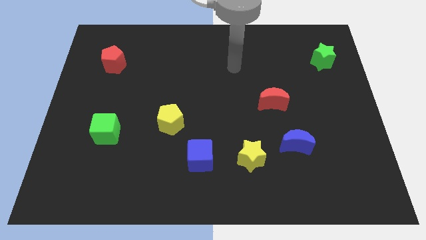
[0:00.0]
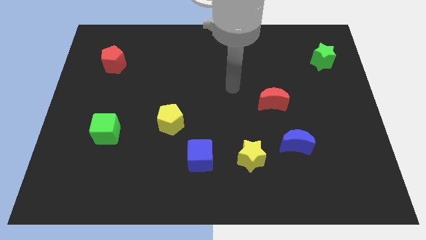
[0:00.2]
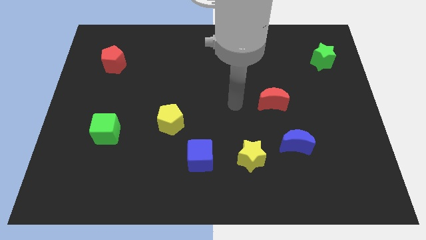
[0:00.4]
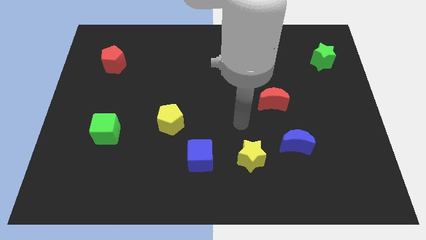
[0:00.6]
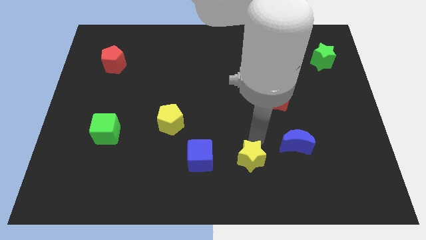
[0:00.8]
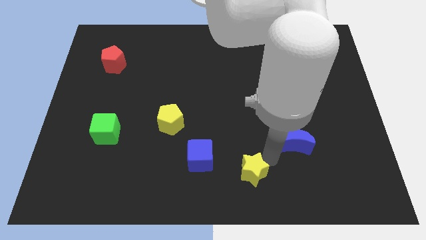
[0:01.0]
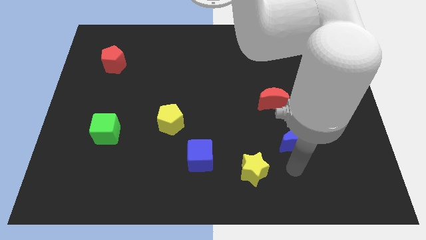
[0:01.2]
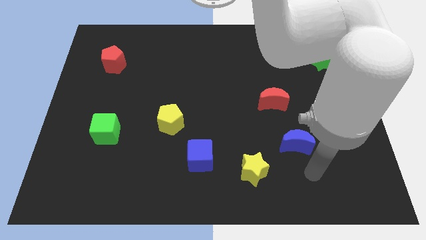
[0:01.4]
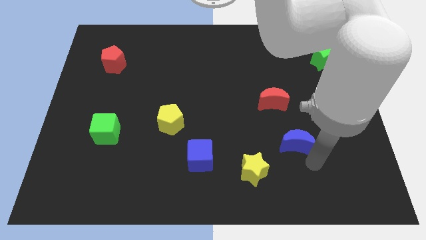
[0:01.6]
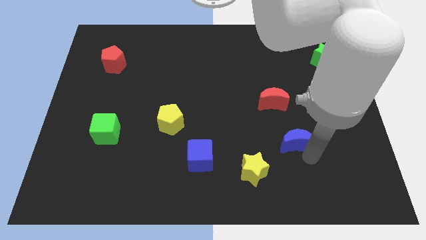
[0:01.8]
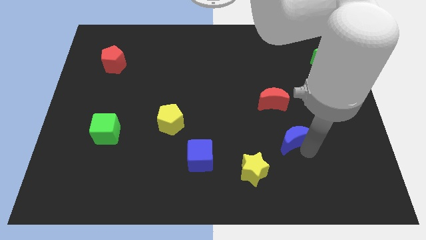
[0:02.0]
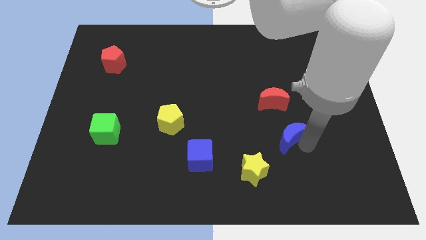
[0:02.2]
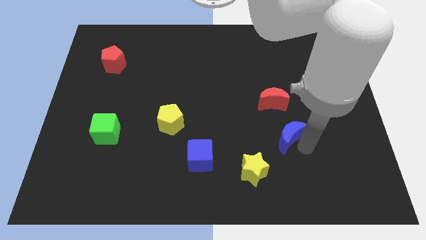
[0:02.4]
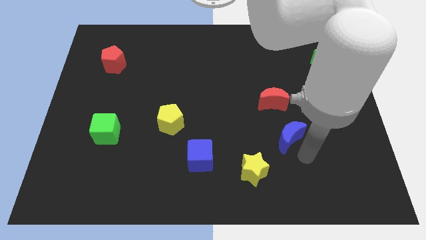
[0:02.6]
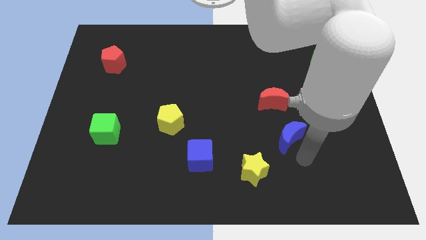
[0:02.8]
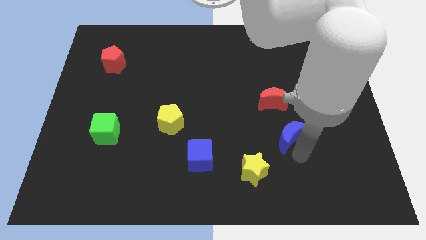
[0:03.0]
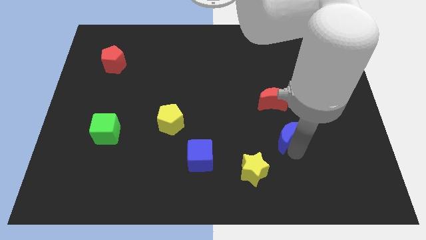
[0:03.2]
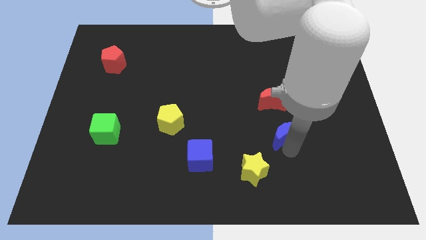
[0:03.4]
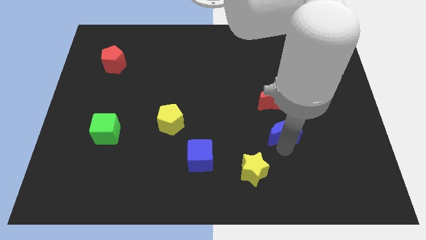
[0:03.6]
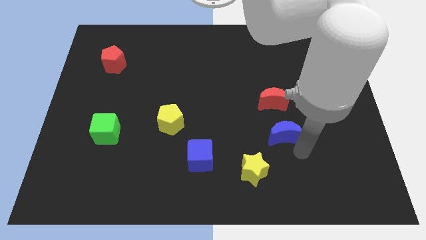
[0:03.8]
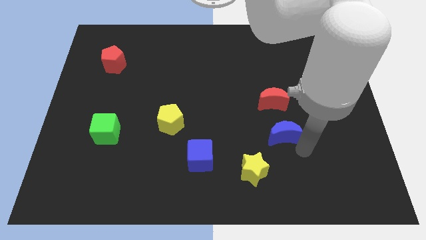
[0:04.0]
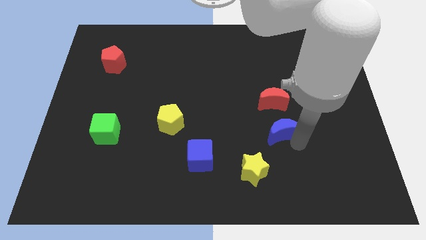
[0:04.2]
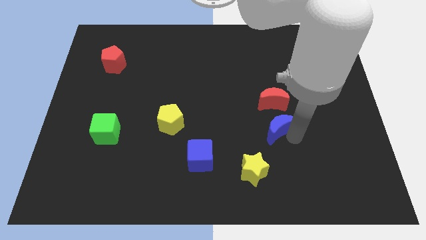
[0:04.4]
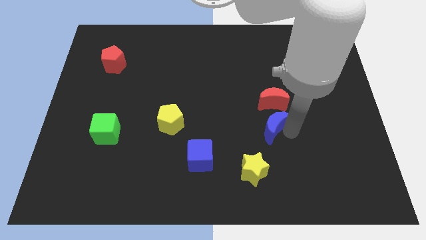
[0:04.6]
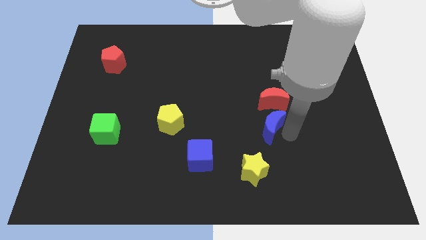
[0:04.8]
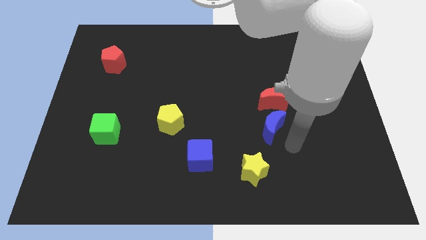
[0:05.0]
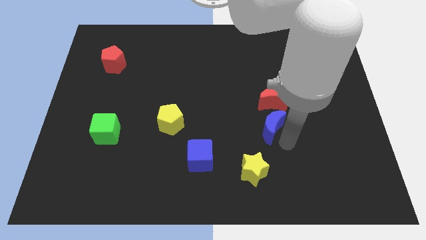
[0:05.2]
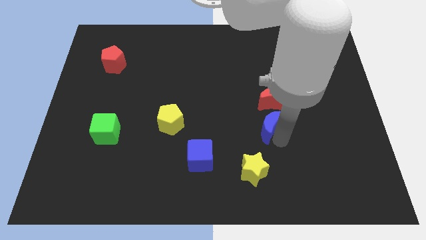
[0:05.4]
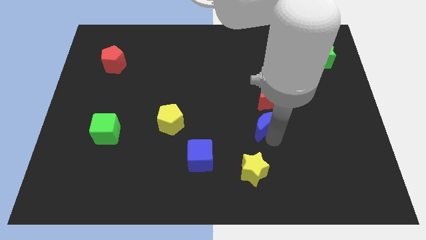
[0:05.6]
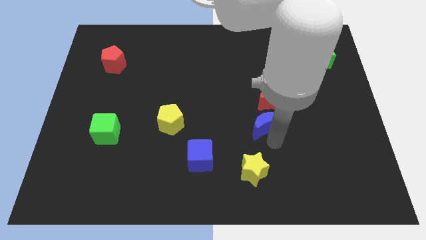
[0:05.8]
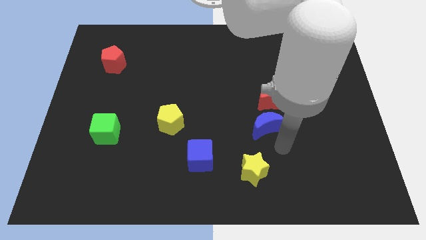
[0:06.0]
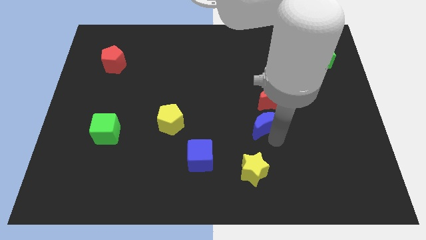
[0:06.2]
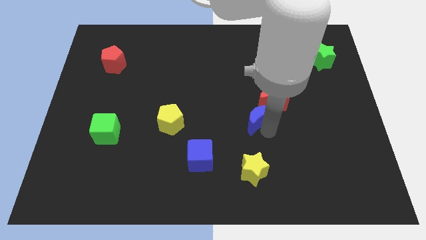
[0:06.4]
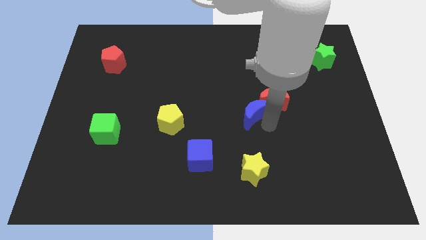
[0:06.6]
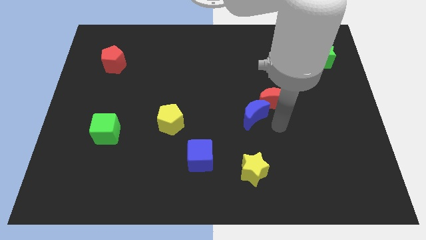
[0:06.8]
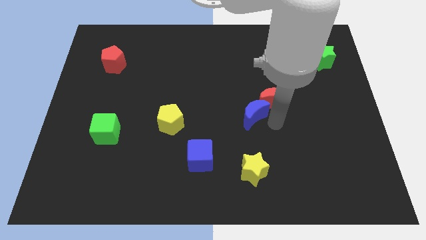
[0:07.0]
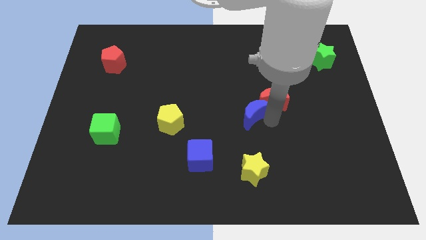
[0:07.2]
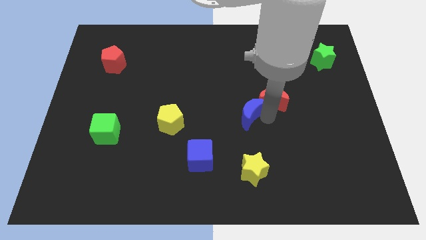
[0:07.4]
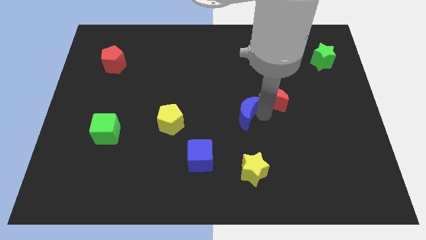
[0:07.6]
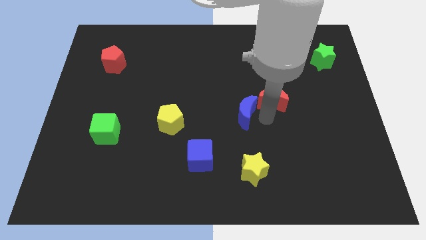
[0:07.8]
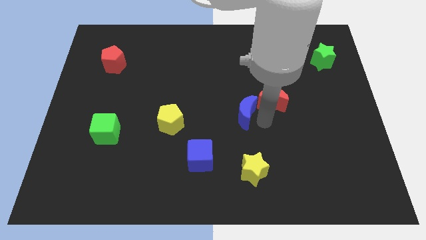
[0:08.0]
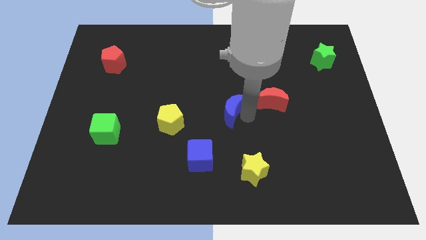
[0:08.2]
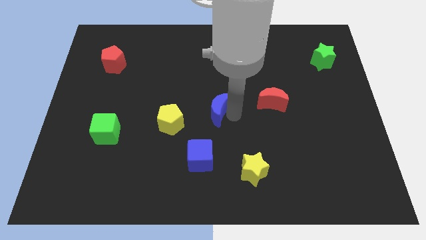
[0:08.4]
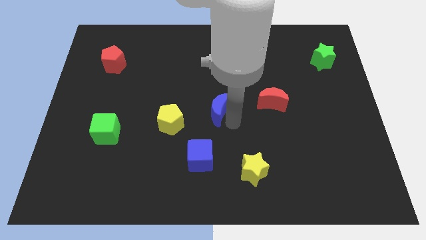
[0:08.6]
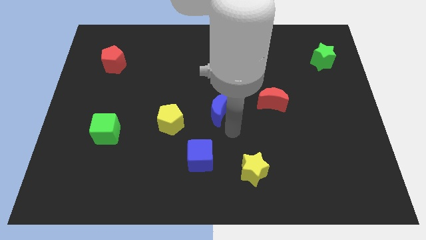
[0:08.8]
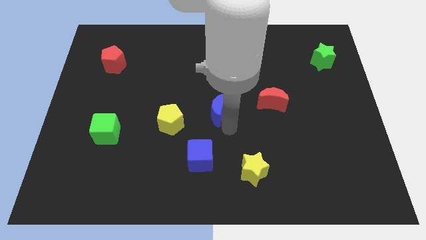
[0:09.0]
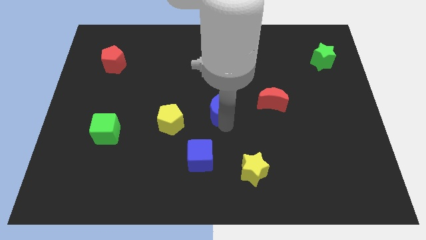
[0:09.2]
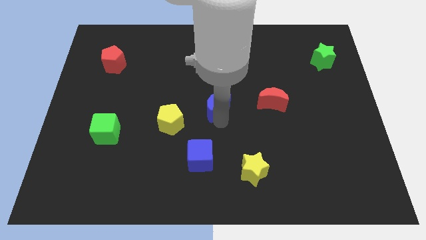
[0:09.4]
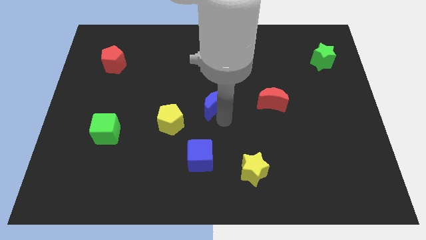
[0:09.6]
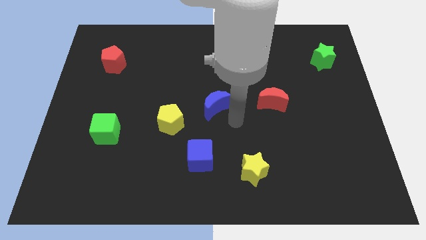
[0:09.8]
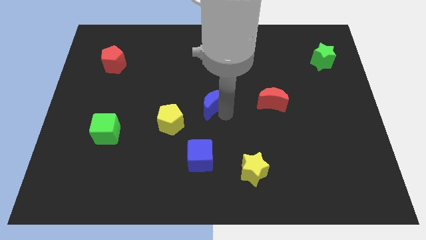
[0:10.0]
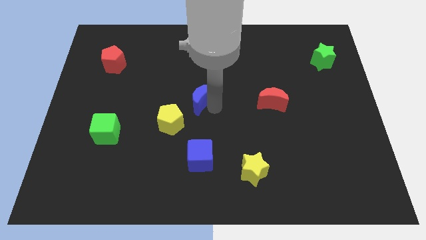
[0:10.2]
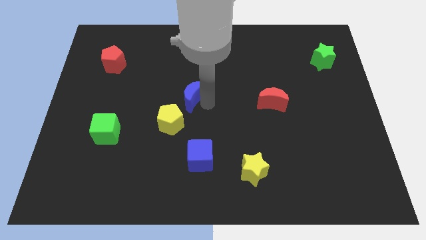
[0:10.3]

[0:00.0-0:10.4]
put the blue moon above the yellow pentagon

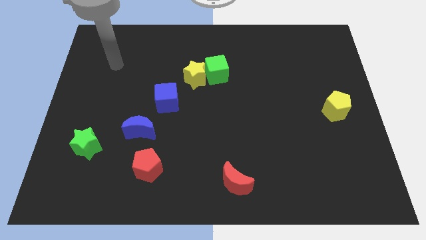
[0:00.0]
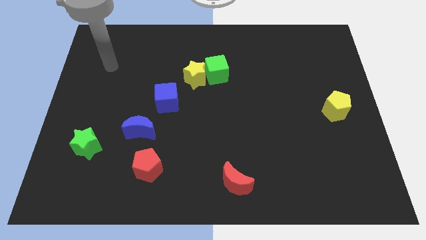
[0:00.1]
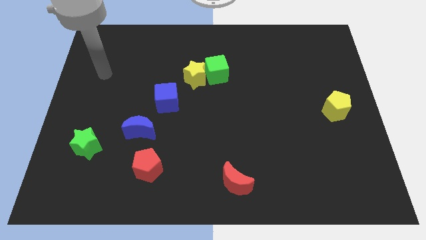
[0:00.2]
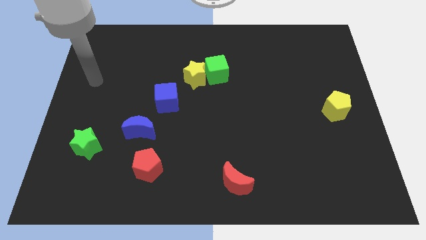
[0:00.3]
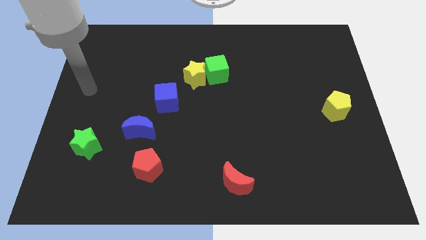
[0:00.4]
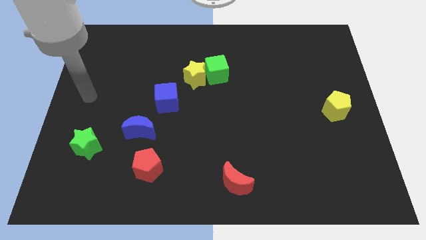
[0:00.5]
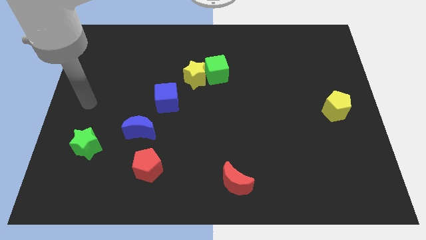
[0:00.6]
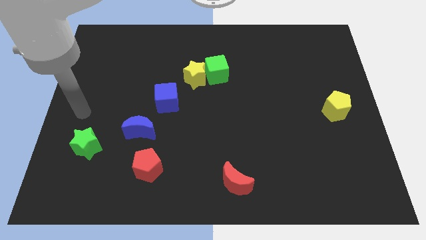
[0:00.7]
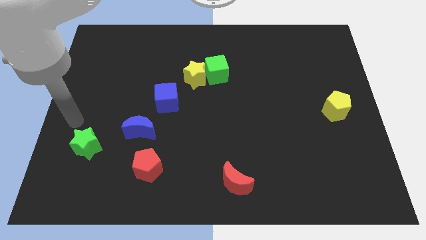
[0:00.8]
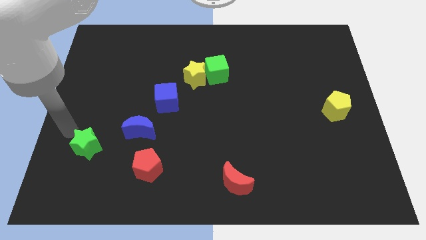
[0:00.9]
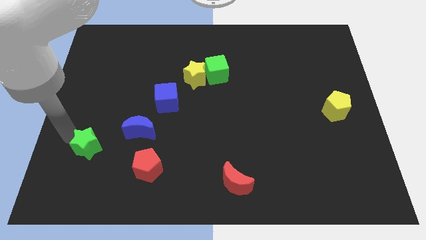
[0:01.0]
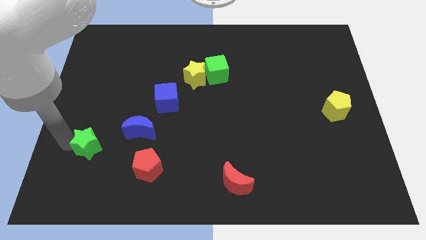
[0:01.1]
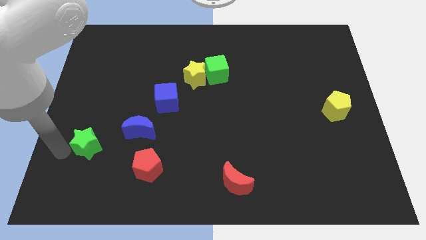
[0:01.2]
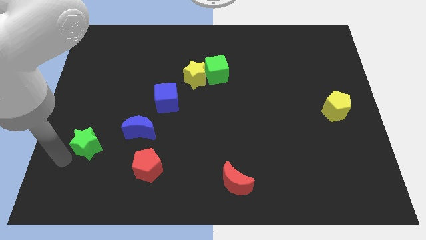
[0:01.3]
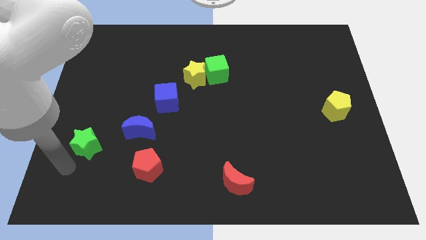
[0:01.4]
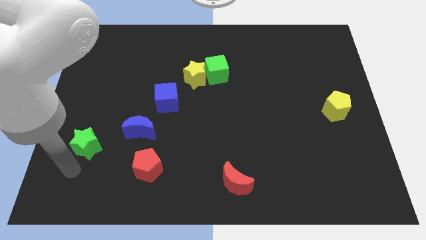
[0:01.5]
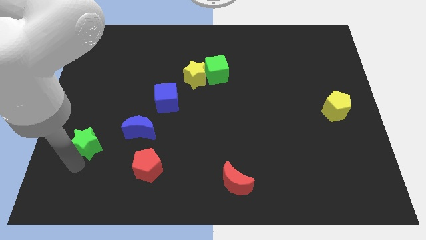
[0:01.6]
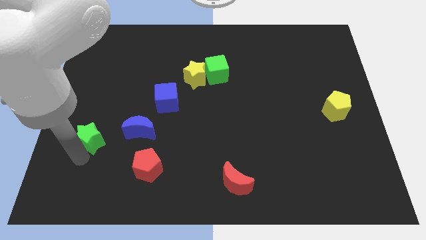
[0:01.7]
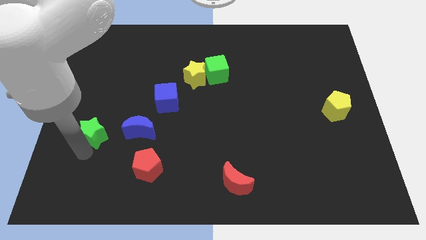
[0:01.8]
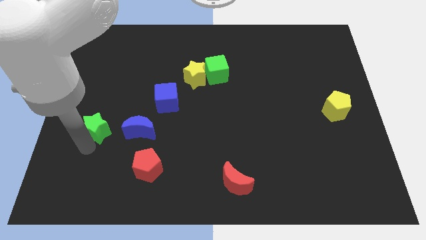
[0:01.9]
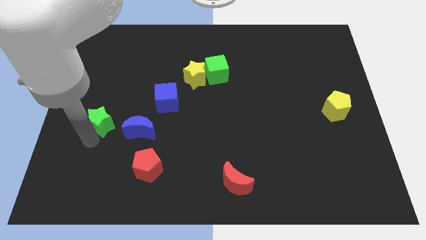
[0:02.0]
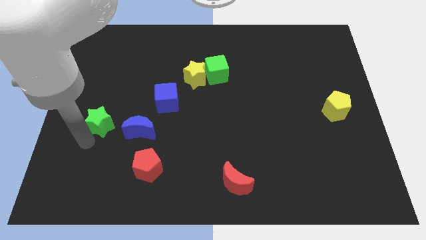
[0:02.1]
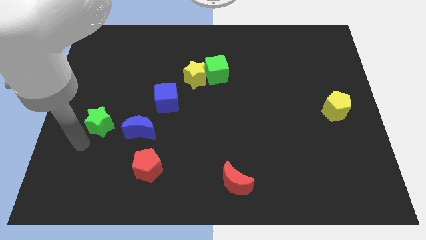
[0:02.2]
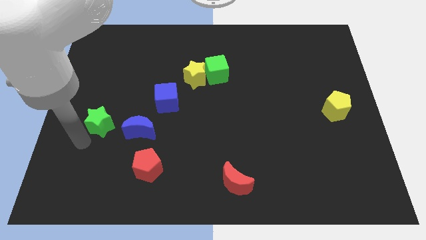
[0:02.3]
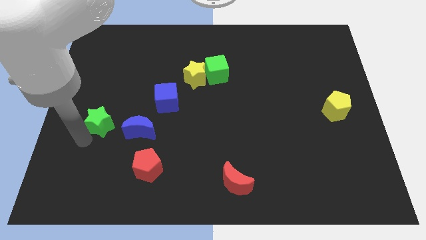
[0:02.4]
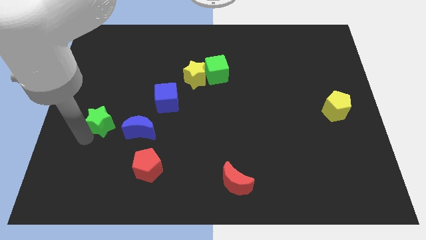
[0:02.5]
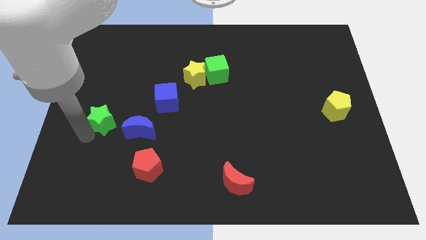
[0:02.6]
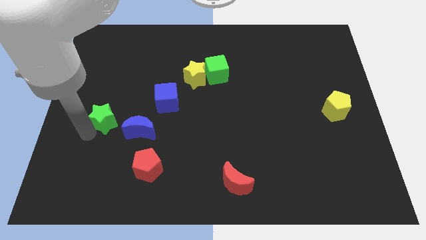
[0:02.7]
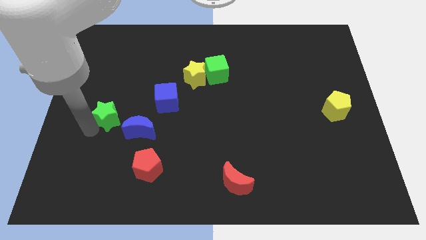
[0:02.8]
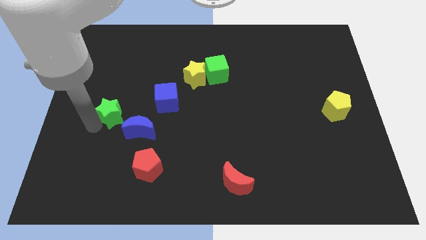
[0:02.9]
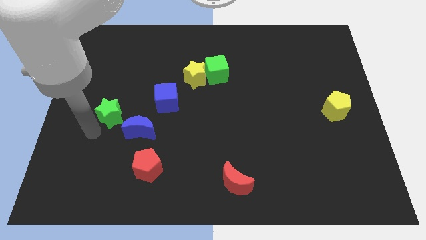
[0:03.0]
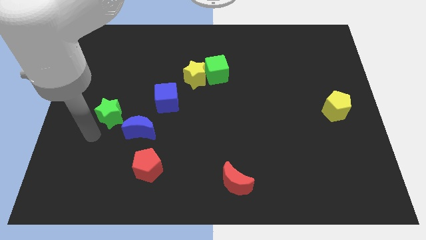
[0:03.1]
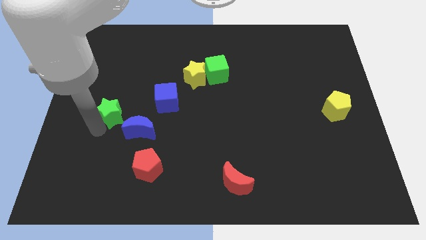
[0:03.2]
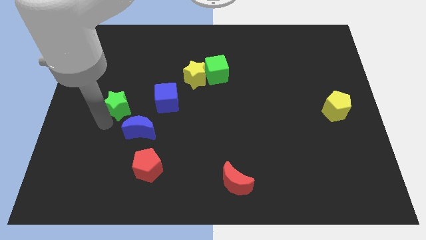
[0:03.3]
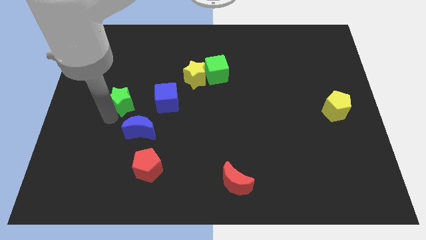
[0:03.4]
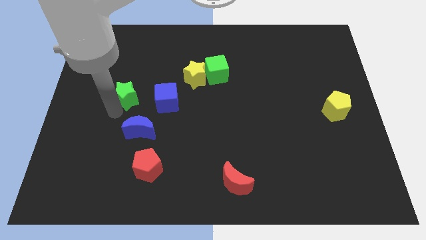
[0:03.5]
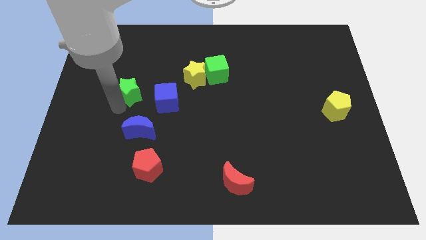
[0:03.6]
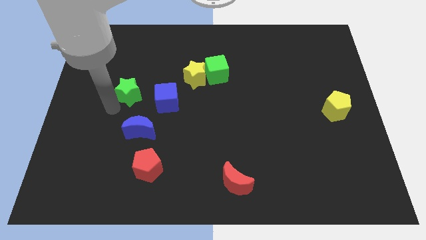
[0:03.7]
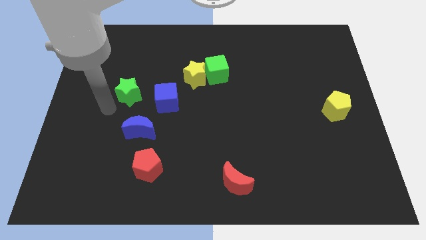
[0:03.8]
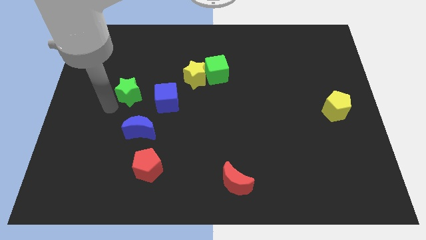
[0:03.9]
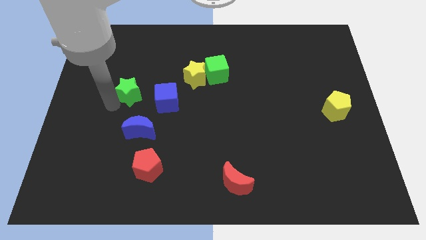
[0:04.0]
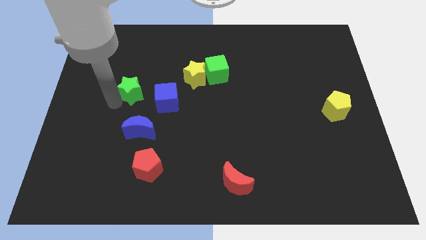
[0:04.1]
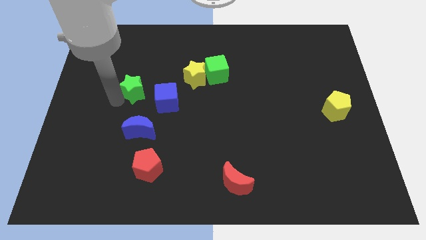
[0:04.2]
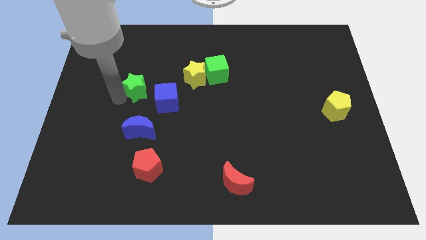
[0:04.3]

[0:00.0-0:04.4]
slide the green star left of the yellow star
